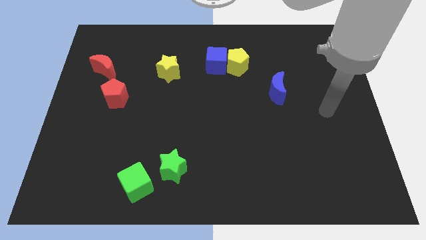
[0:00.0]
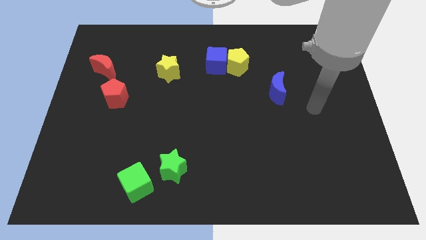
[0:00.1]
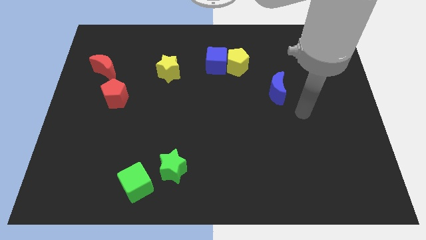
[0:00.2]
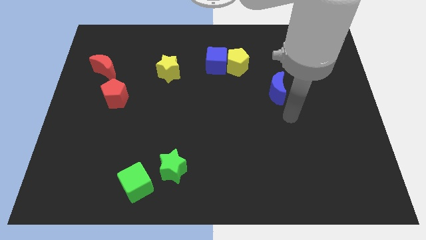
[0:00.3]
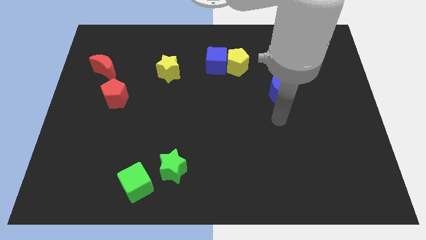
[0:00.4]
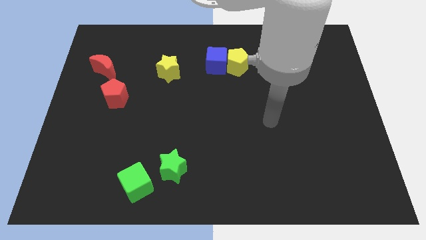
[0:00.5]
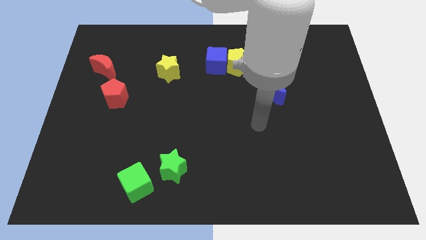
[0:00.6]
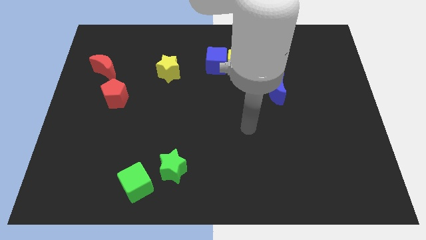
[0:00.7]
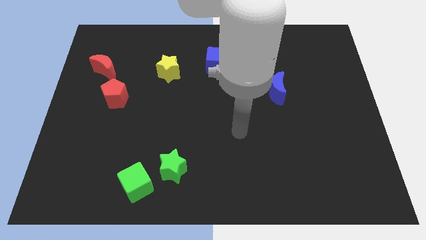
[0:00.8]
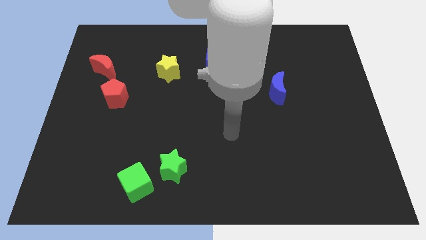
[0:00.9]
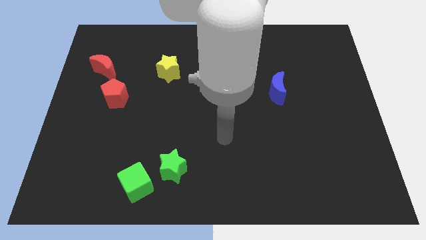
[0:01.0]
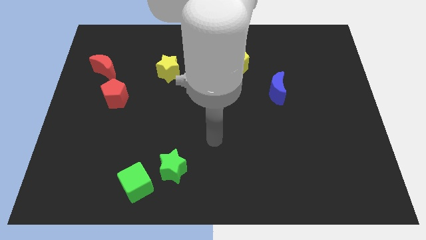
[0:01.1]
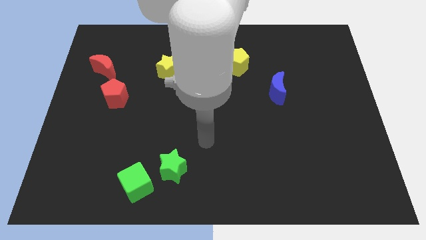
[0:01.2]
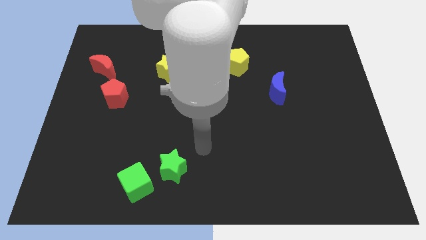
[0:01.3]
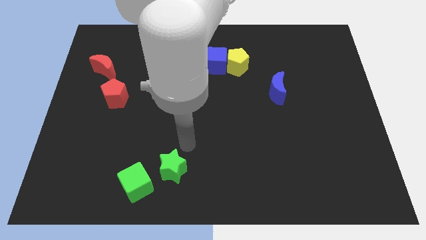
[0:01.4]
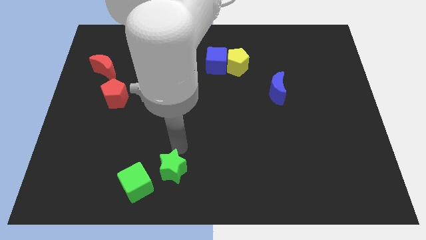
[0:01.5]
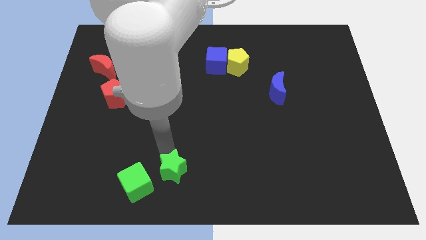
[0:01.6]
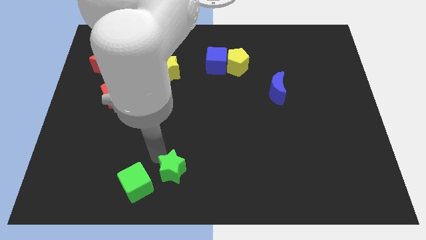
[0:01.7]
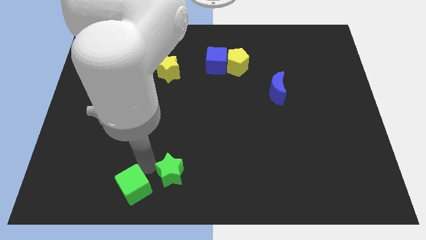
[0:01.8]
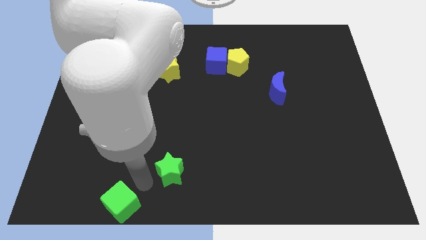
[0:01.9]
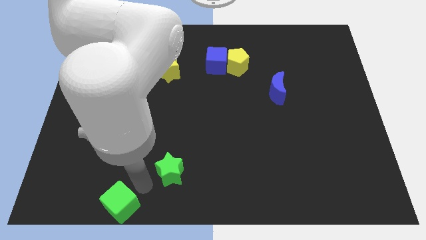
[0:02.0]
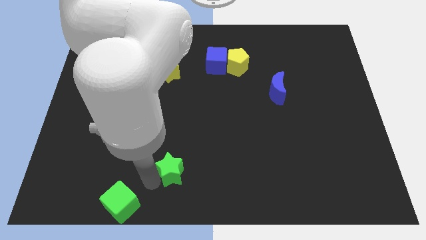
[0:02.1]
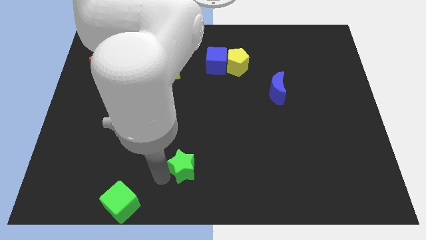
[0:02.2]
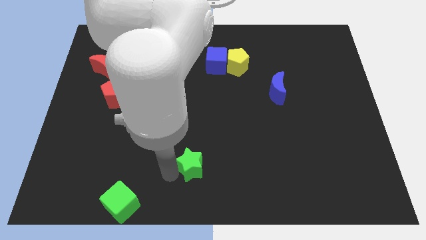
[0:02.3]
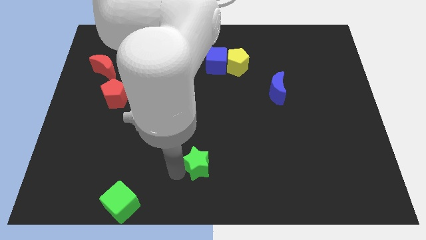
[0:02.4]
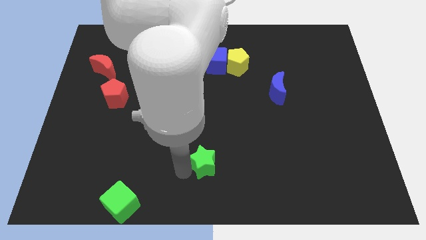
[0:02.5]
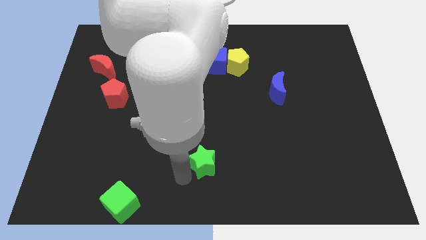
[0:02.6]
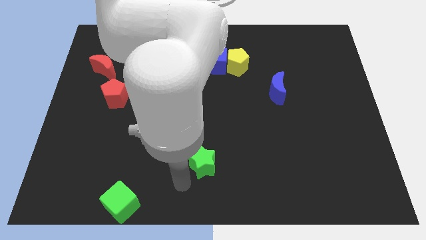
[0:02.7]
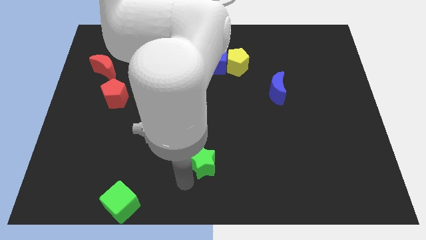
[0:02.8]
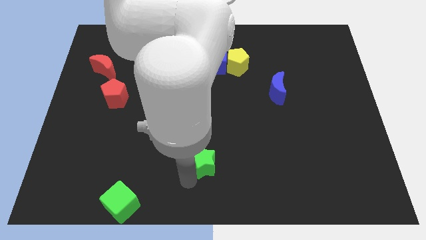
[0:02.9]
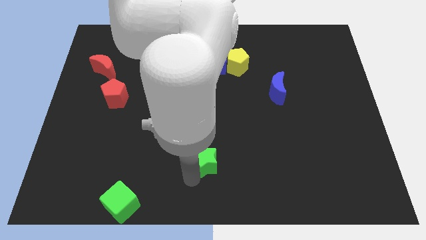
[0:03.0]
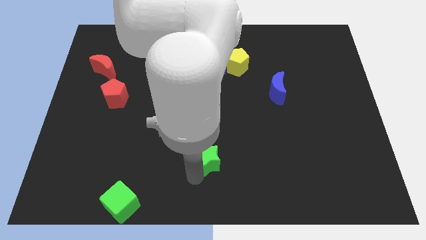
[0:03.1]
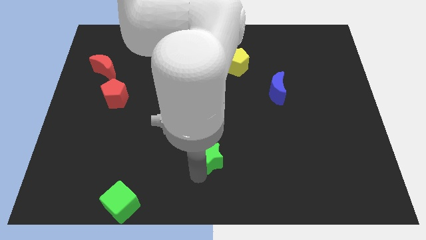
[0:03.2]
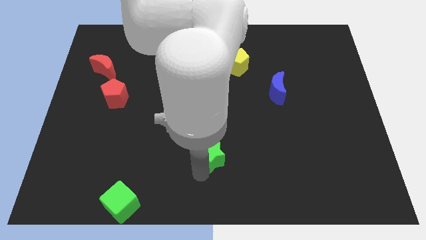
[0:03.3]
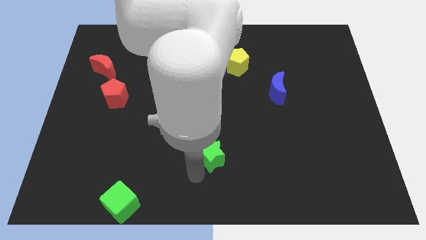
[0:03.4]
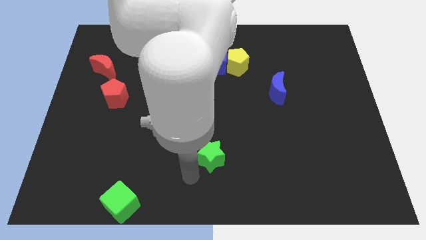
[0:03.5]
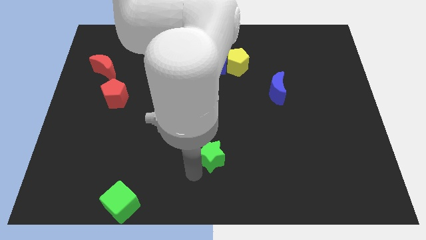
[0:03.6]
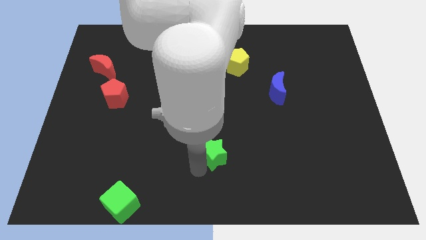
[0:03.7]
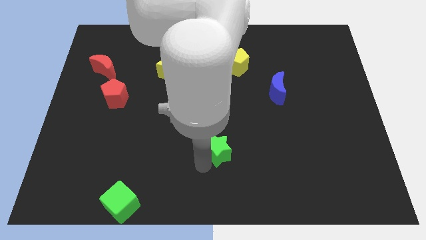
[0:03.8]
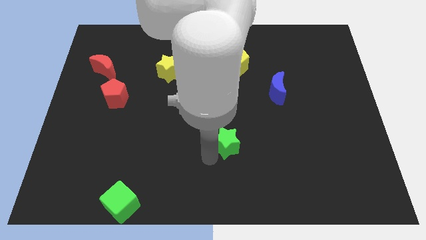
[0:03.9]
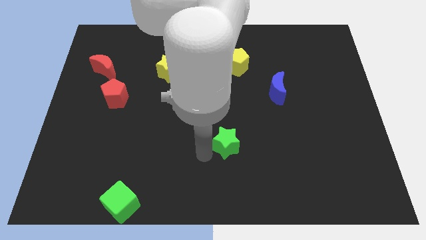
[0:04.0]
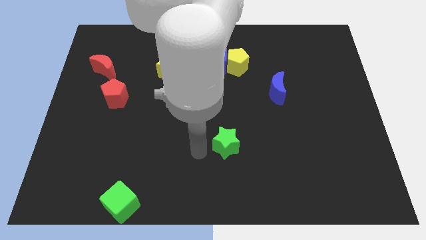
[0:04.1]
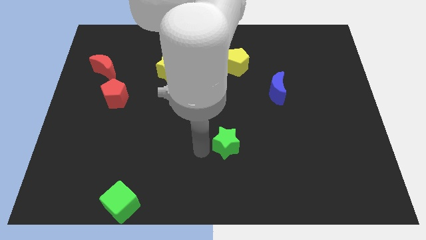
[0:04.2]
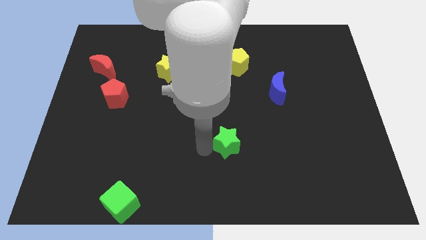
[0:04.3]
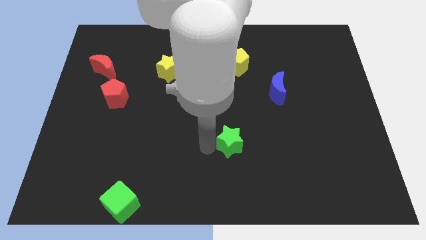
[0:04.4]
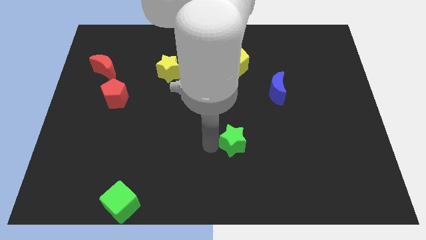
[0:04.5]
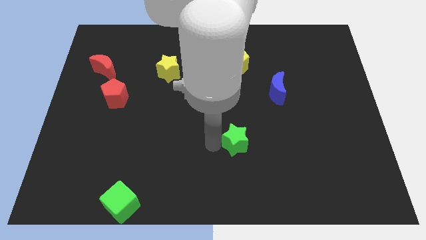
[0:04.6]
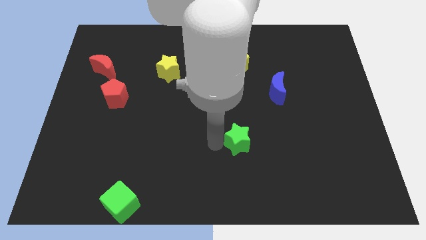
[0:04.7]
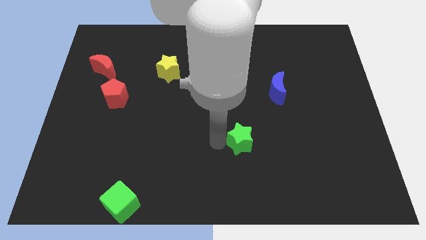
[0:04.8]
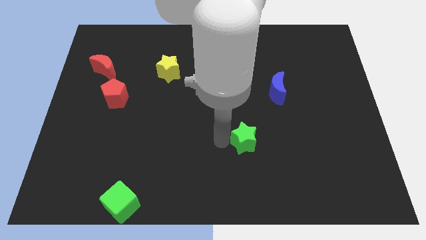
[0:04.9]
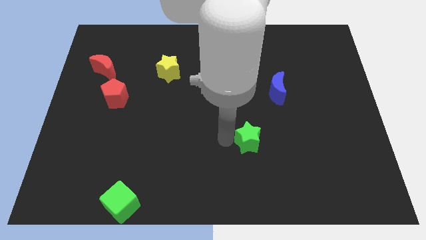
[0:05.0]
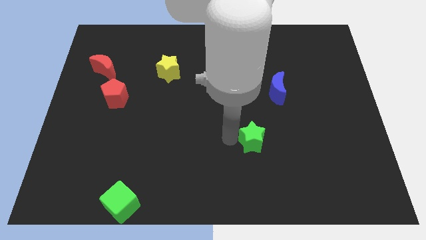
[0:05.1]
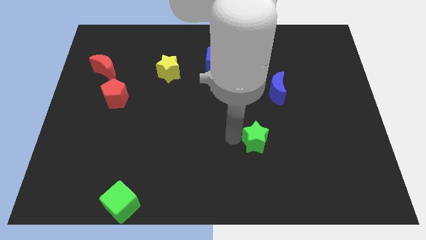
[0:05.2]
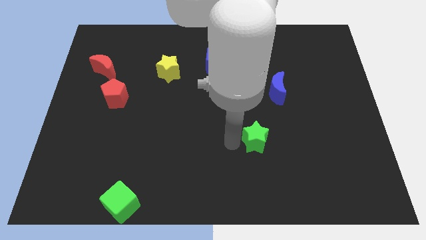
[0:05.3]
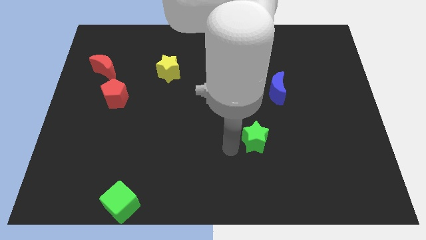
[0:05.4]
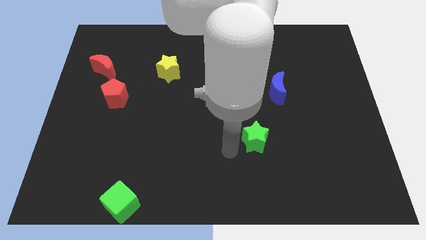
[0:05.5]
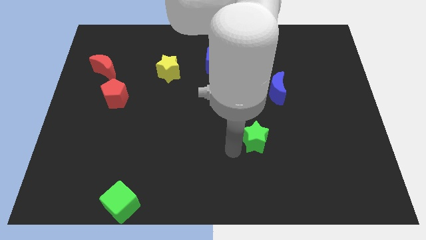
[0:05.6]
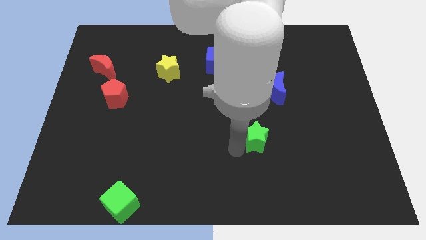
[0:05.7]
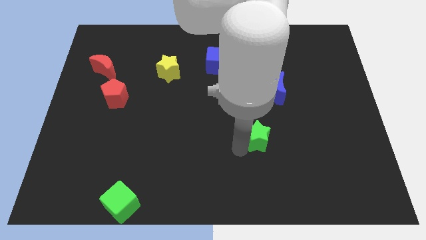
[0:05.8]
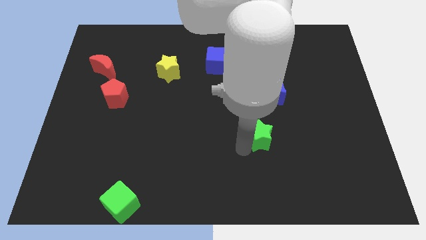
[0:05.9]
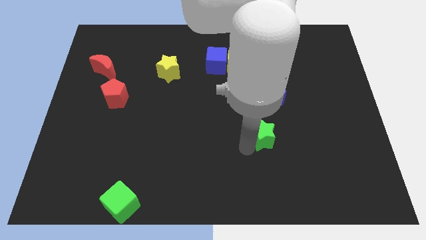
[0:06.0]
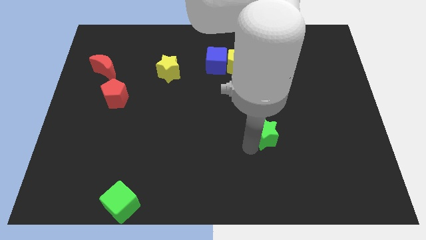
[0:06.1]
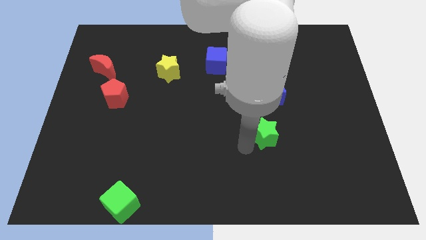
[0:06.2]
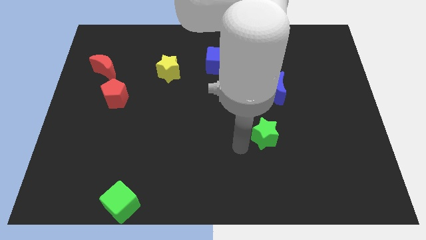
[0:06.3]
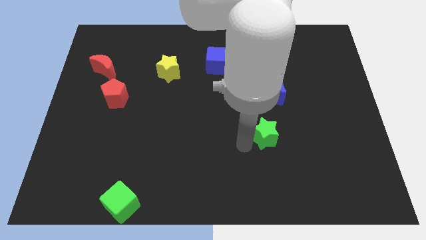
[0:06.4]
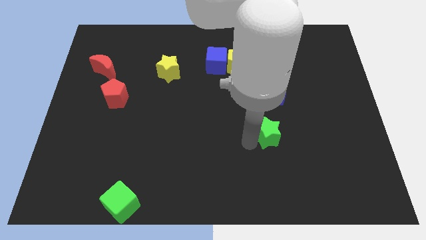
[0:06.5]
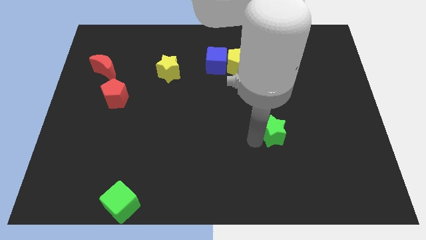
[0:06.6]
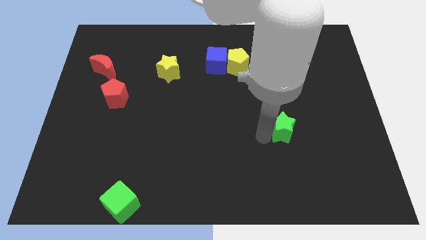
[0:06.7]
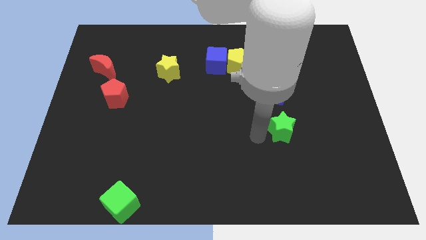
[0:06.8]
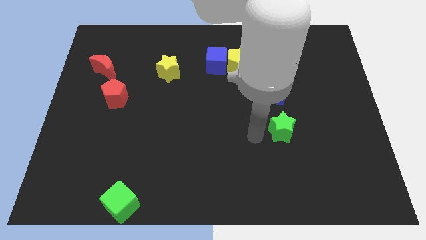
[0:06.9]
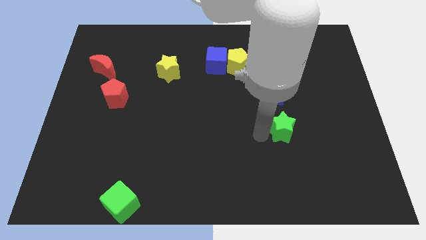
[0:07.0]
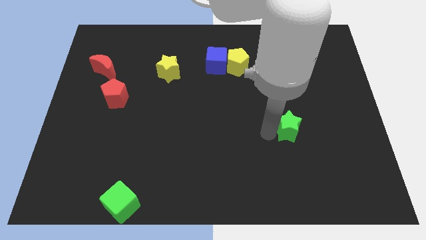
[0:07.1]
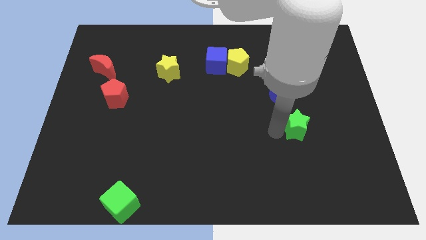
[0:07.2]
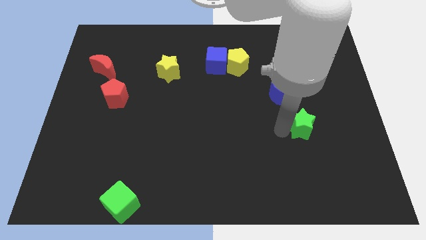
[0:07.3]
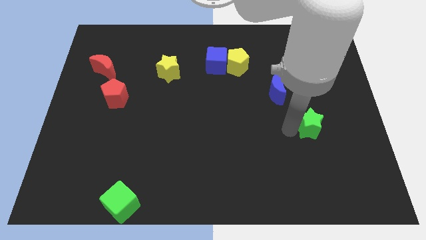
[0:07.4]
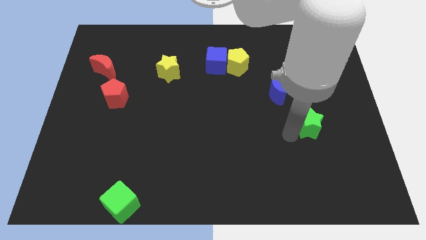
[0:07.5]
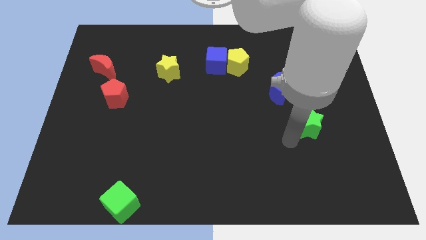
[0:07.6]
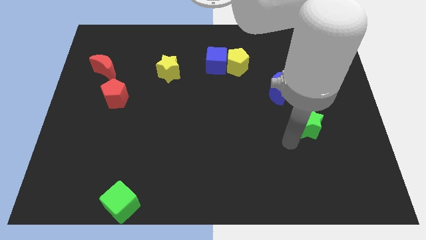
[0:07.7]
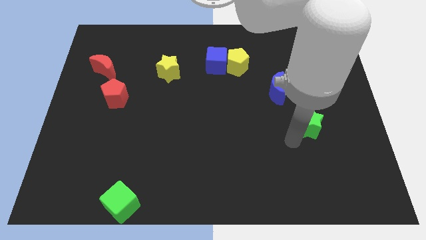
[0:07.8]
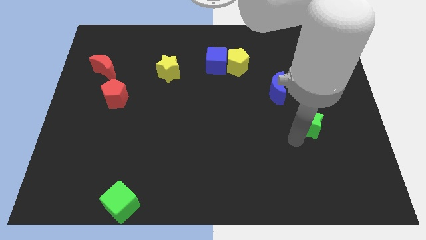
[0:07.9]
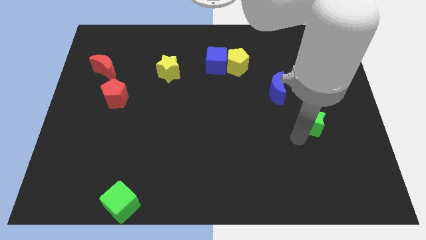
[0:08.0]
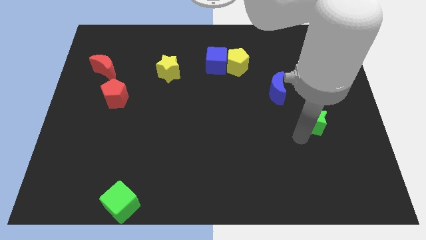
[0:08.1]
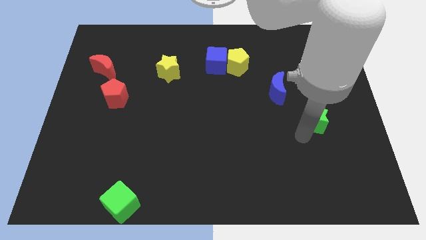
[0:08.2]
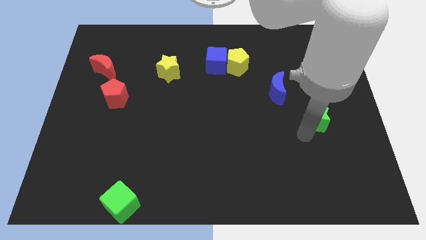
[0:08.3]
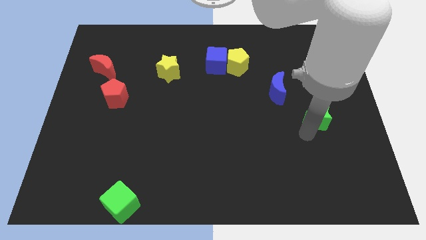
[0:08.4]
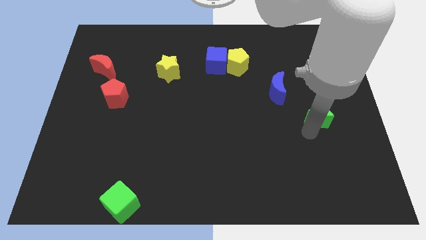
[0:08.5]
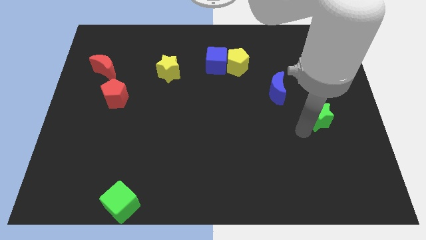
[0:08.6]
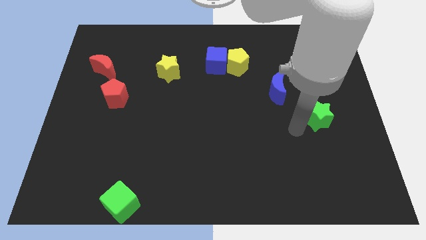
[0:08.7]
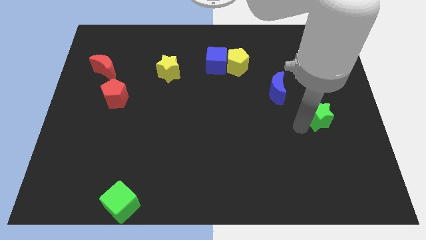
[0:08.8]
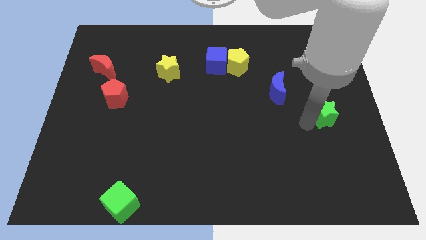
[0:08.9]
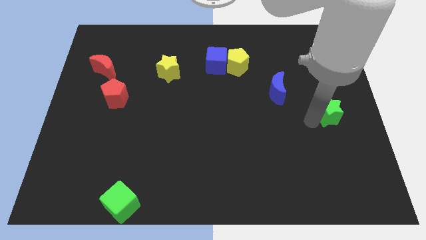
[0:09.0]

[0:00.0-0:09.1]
slide the green star to the right side
